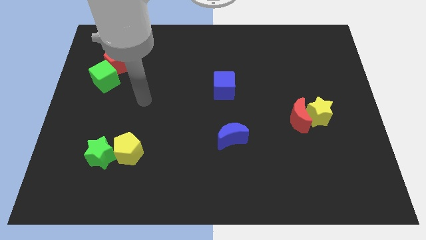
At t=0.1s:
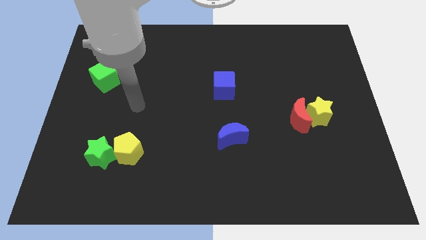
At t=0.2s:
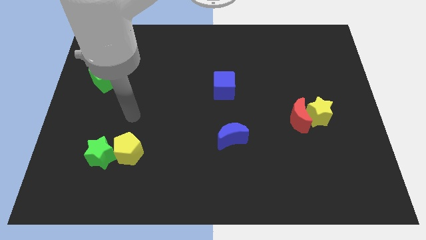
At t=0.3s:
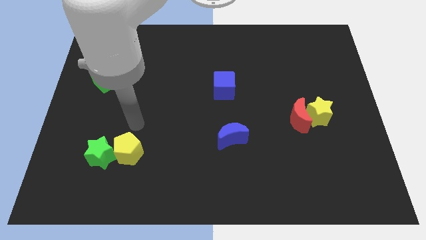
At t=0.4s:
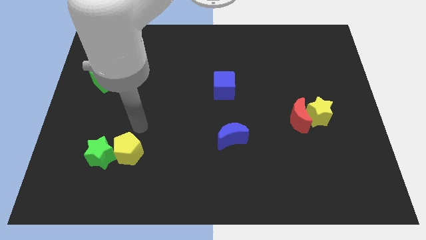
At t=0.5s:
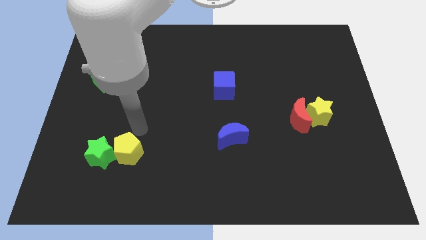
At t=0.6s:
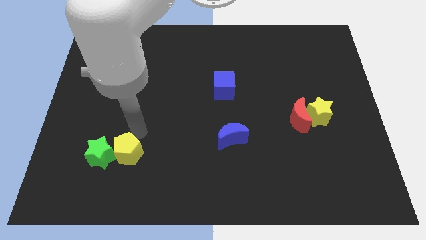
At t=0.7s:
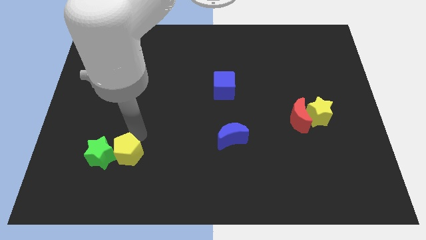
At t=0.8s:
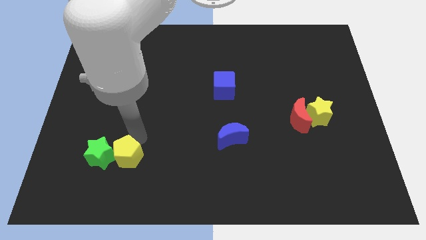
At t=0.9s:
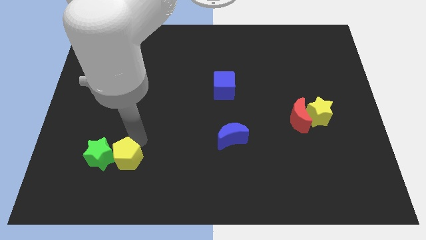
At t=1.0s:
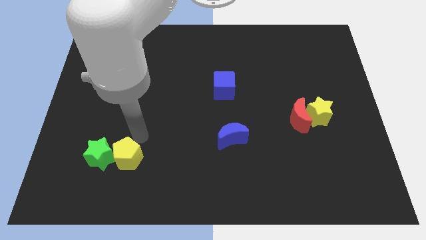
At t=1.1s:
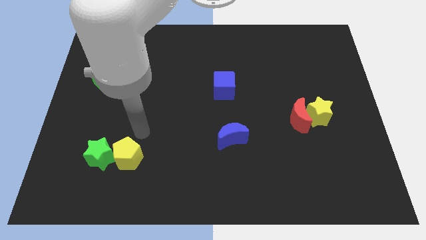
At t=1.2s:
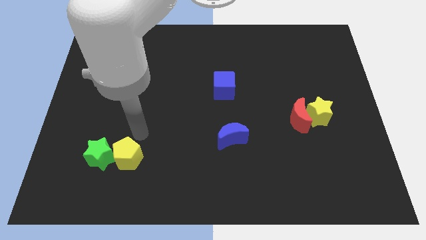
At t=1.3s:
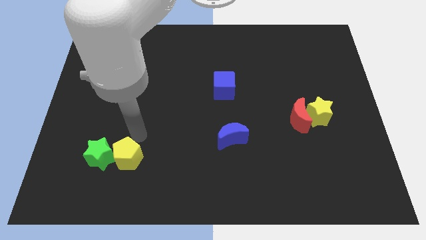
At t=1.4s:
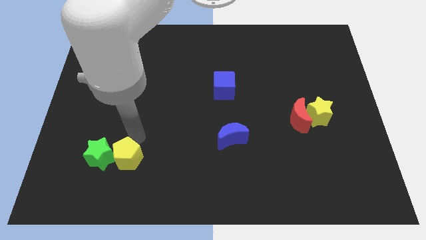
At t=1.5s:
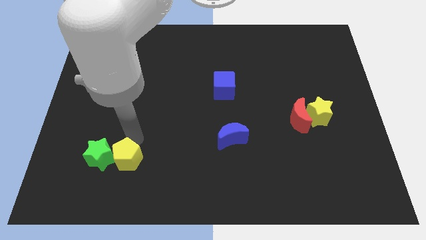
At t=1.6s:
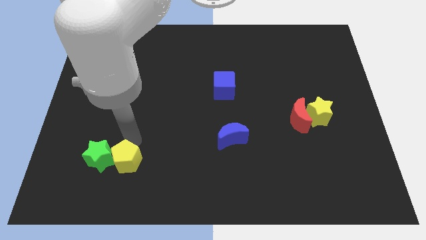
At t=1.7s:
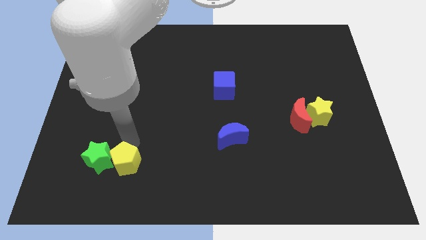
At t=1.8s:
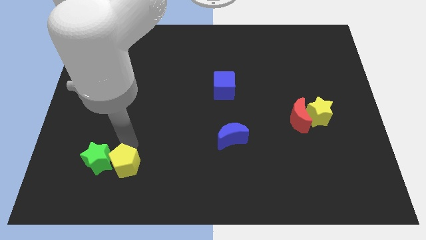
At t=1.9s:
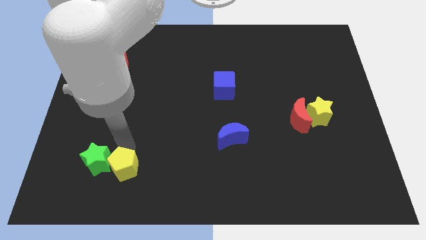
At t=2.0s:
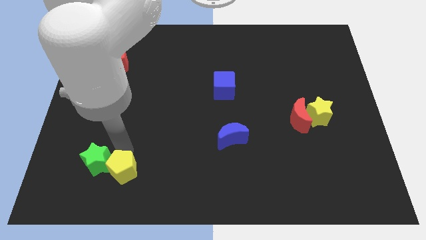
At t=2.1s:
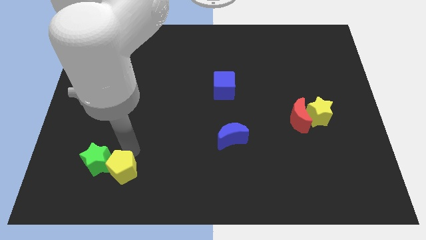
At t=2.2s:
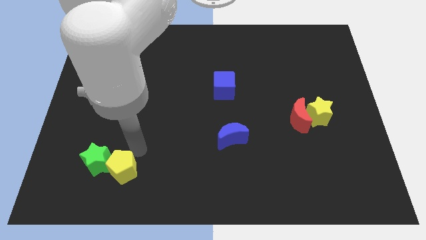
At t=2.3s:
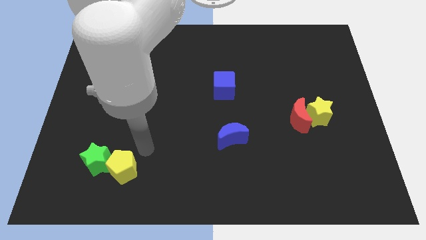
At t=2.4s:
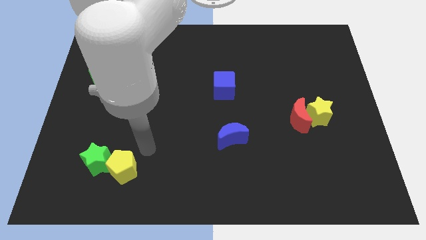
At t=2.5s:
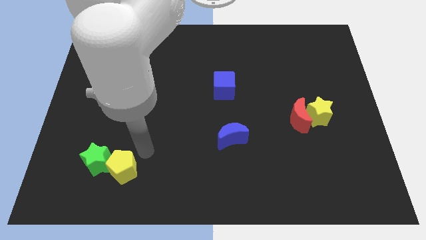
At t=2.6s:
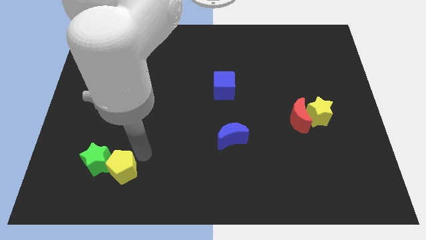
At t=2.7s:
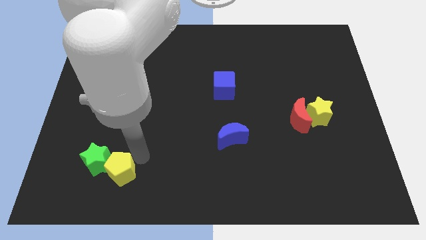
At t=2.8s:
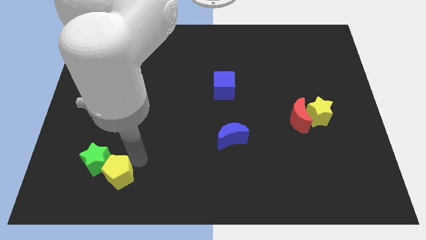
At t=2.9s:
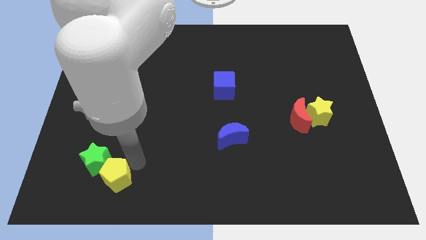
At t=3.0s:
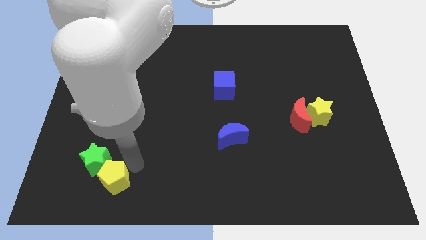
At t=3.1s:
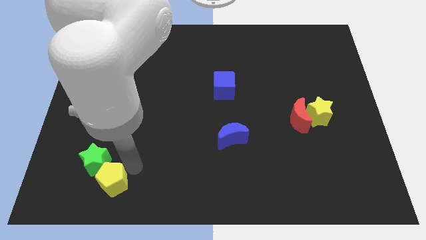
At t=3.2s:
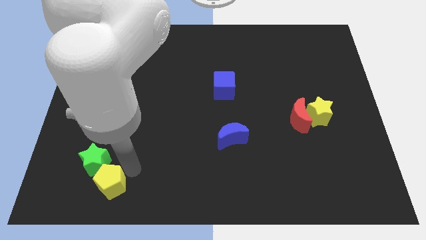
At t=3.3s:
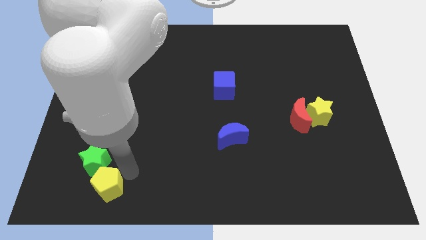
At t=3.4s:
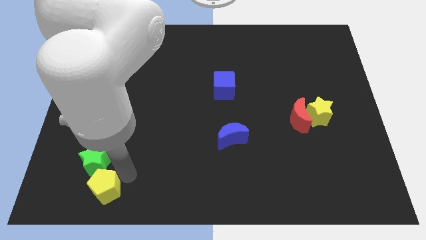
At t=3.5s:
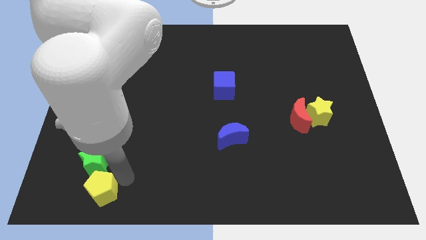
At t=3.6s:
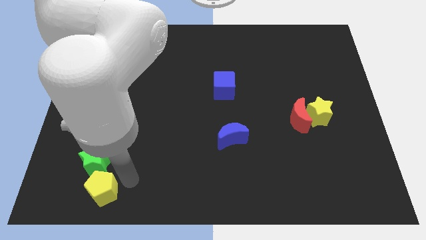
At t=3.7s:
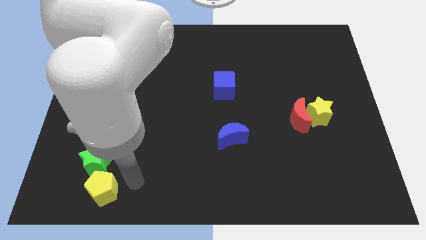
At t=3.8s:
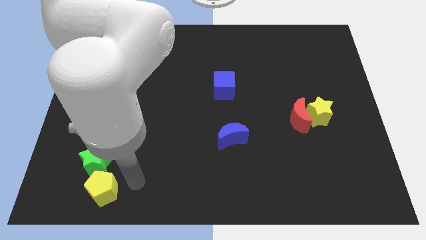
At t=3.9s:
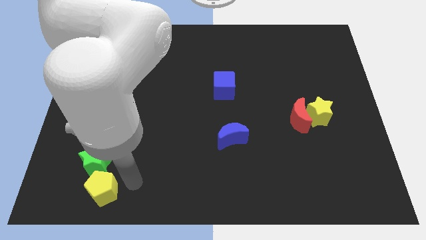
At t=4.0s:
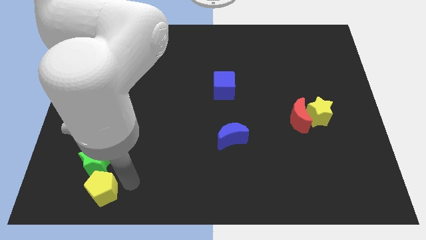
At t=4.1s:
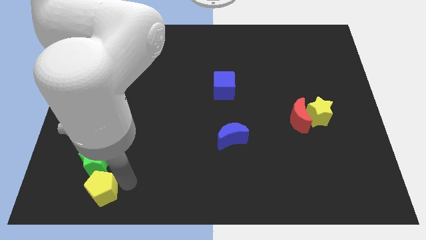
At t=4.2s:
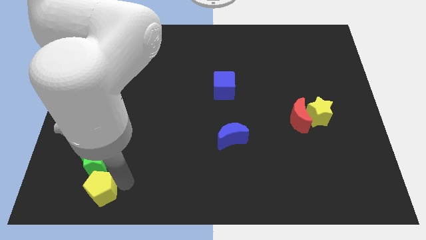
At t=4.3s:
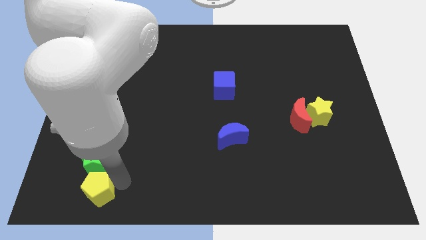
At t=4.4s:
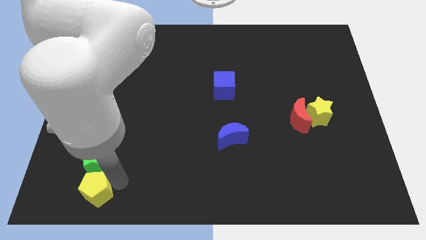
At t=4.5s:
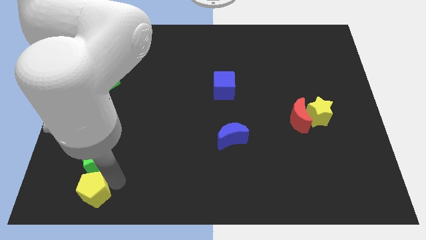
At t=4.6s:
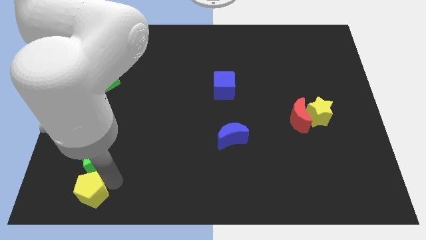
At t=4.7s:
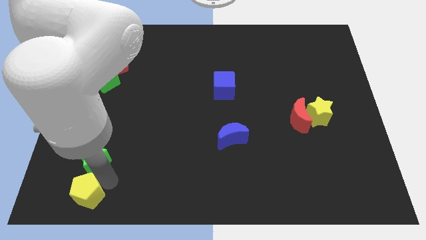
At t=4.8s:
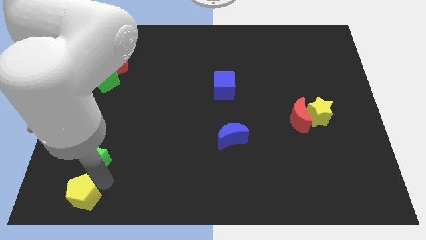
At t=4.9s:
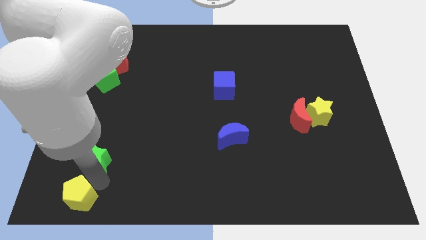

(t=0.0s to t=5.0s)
push the yellow pentagon to the bottom left of the board

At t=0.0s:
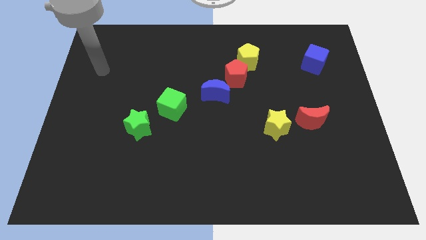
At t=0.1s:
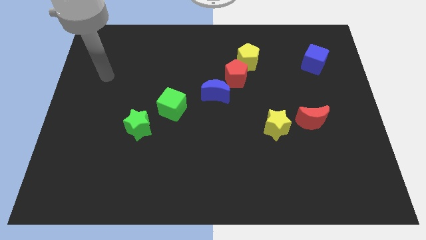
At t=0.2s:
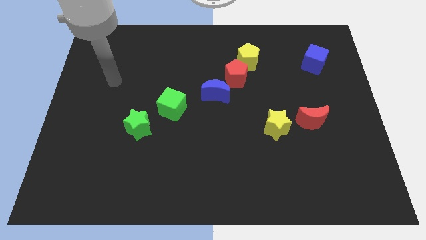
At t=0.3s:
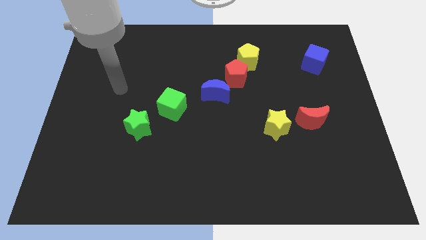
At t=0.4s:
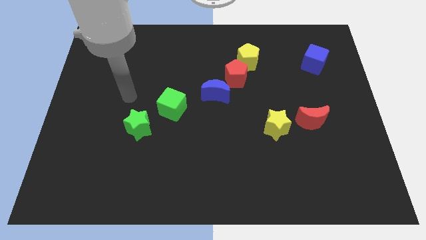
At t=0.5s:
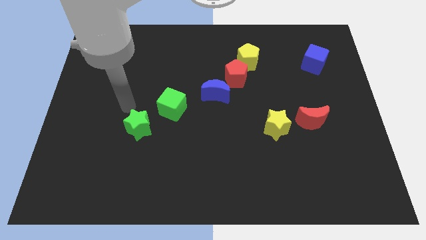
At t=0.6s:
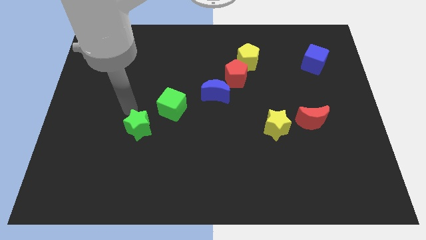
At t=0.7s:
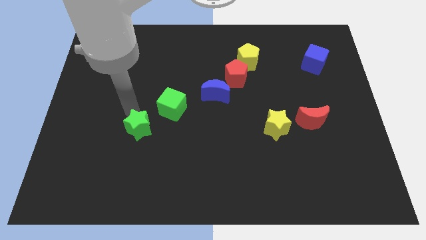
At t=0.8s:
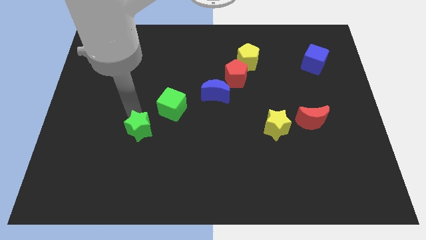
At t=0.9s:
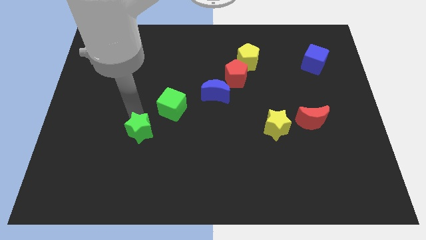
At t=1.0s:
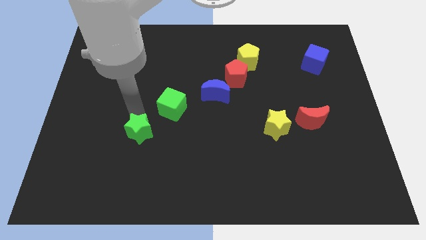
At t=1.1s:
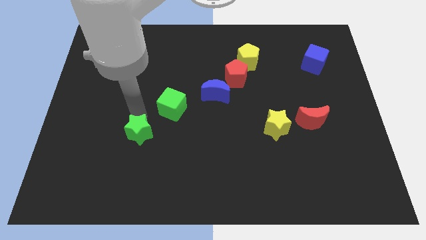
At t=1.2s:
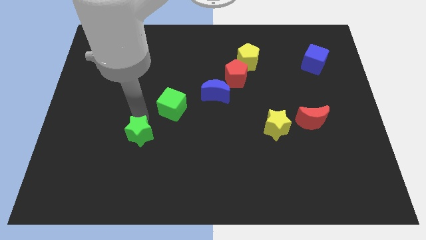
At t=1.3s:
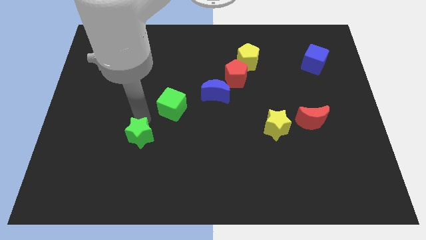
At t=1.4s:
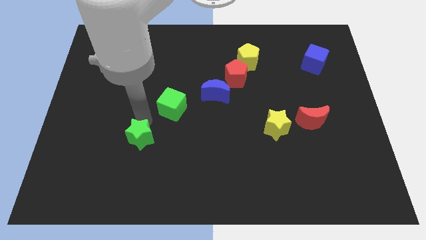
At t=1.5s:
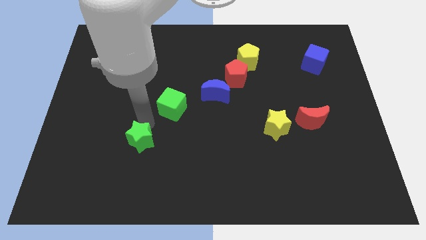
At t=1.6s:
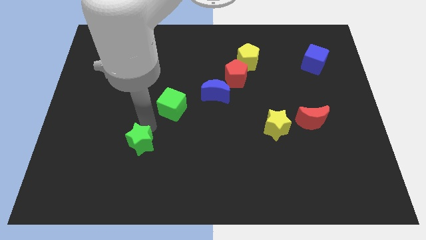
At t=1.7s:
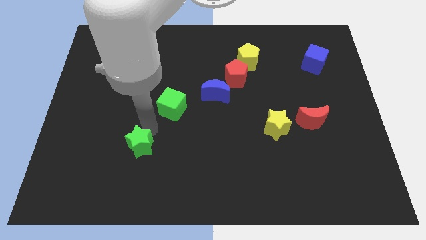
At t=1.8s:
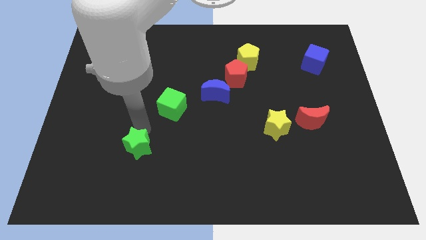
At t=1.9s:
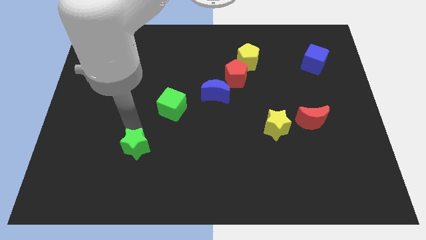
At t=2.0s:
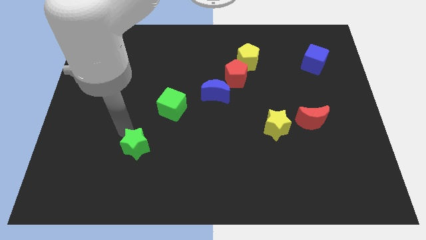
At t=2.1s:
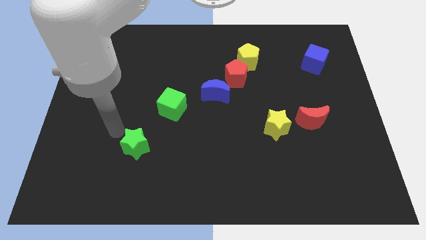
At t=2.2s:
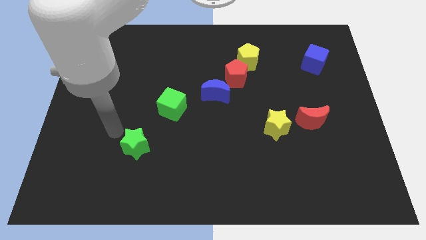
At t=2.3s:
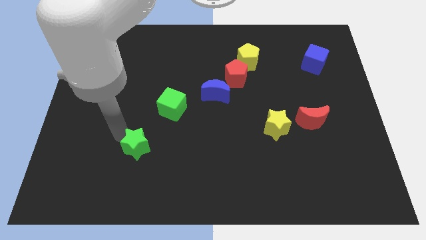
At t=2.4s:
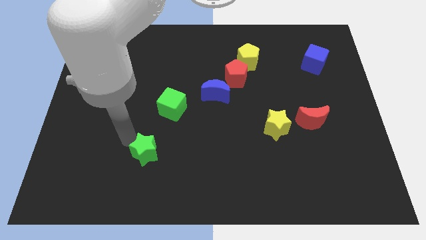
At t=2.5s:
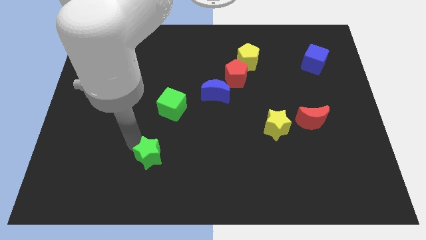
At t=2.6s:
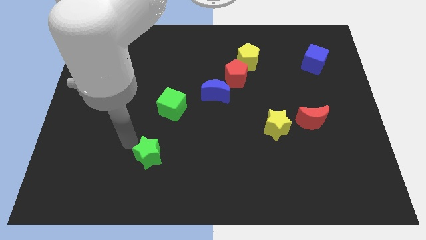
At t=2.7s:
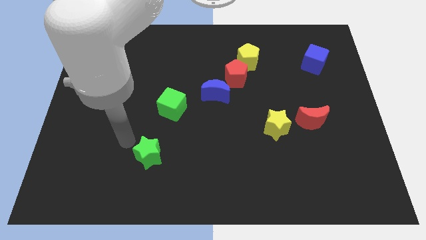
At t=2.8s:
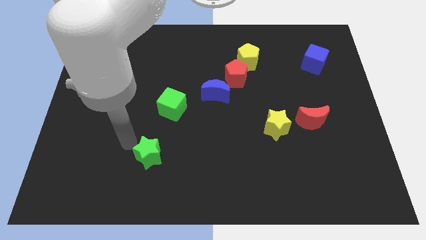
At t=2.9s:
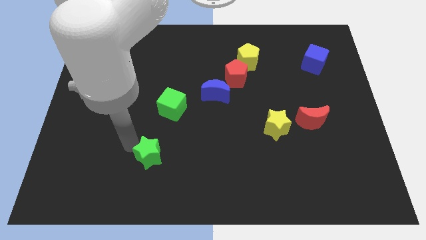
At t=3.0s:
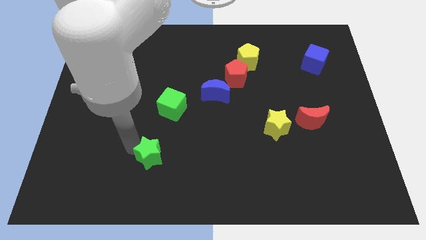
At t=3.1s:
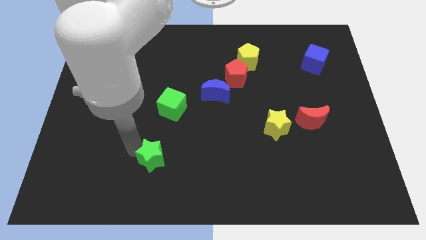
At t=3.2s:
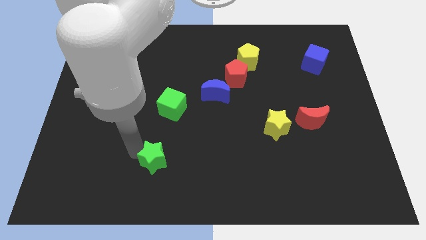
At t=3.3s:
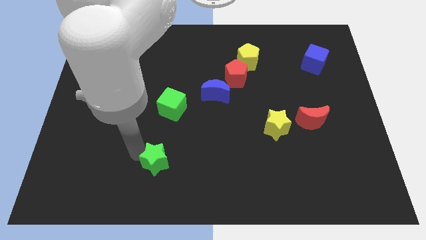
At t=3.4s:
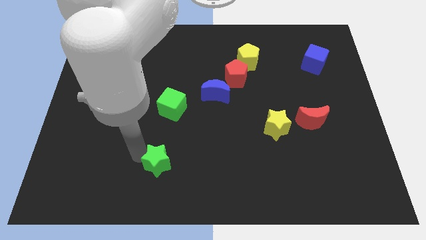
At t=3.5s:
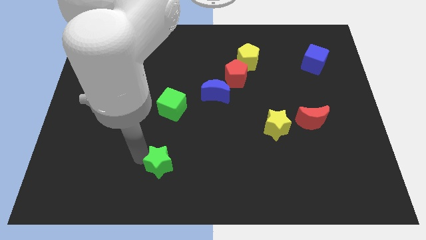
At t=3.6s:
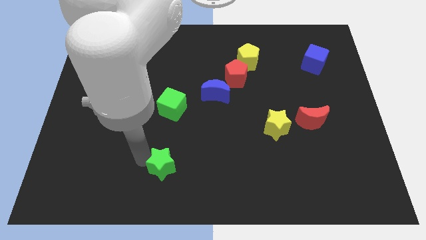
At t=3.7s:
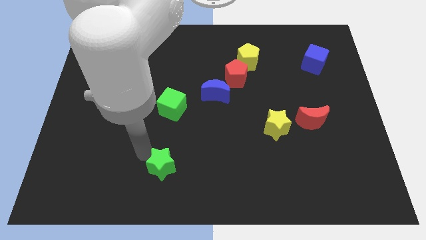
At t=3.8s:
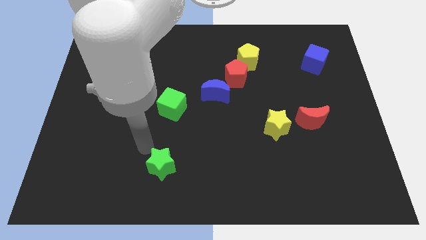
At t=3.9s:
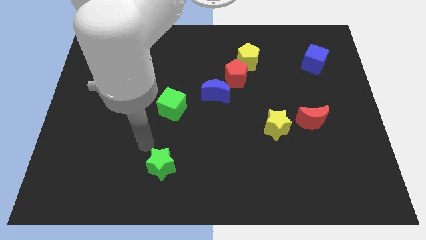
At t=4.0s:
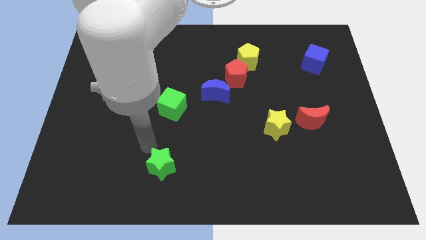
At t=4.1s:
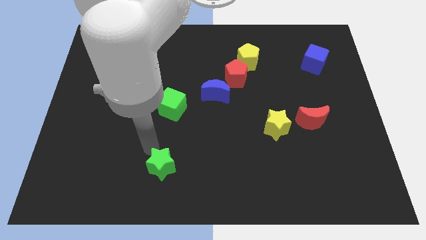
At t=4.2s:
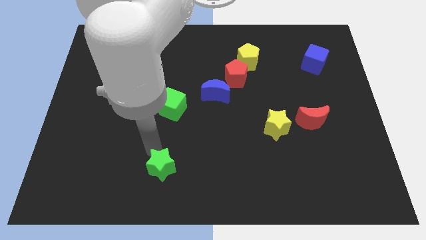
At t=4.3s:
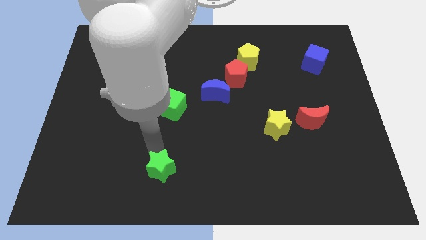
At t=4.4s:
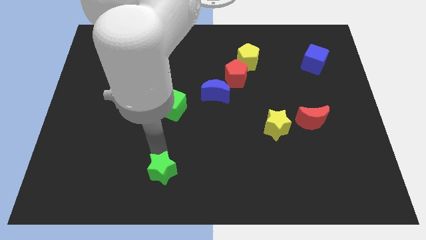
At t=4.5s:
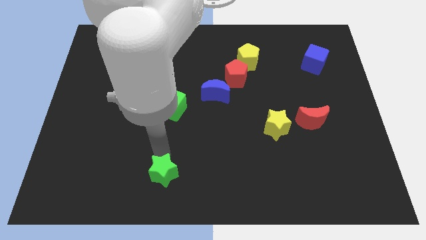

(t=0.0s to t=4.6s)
put the green star to the bottom side
